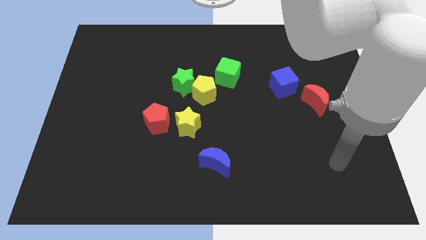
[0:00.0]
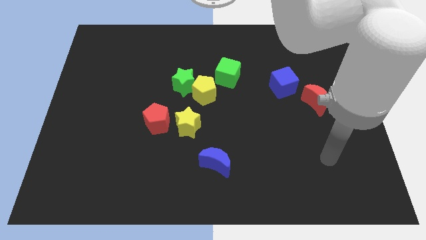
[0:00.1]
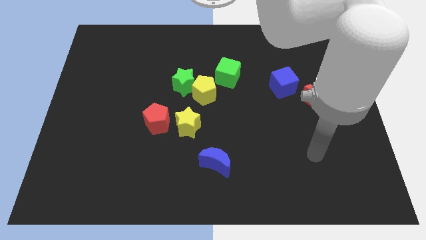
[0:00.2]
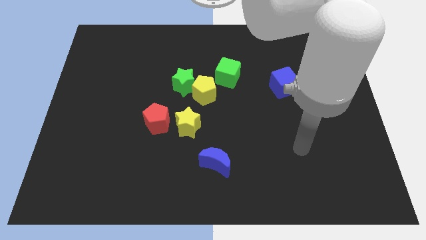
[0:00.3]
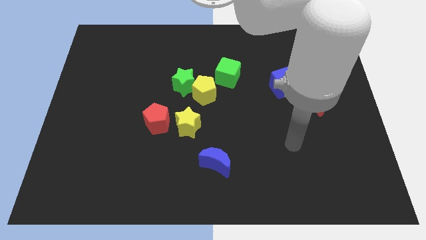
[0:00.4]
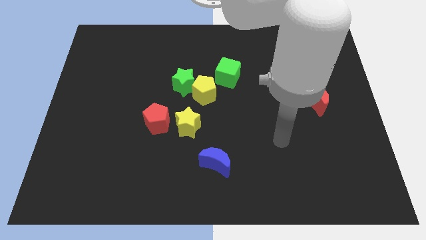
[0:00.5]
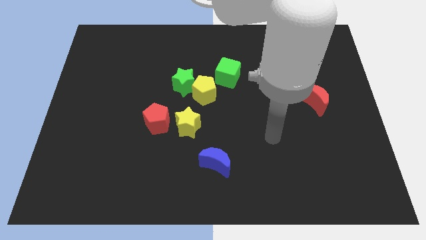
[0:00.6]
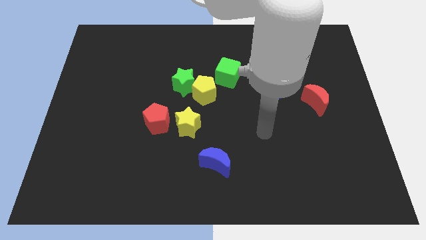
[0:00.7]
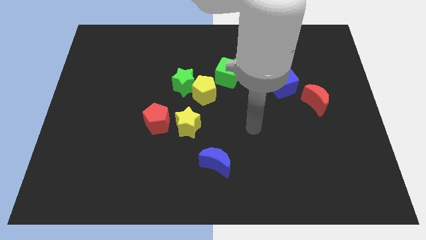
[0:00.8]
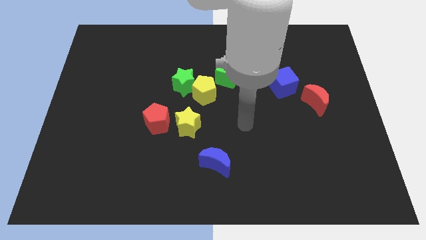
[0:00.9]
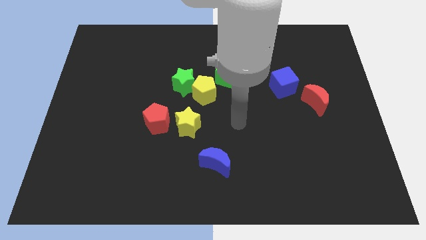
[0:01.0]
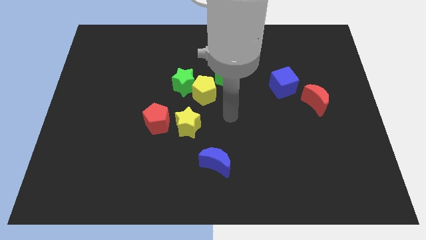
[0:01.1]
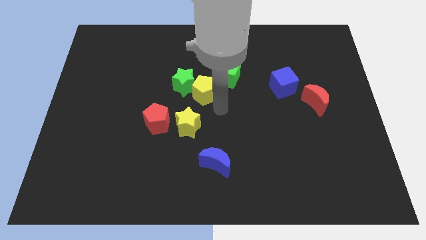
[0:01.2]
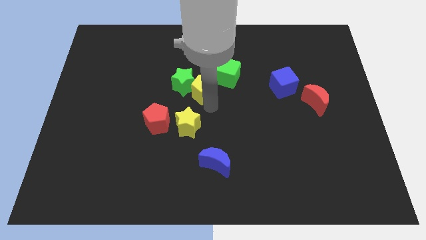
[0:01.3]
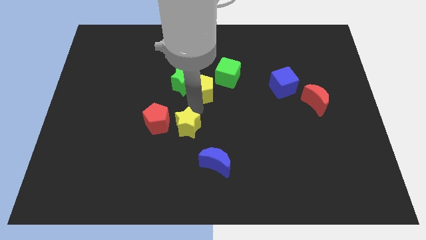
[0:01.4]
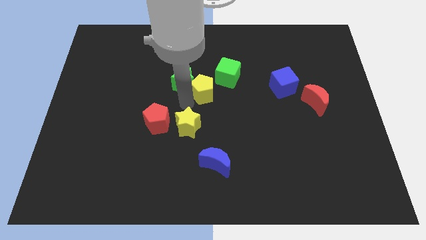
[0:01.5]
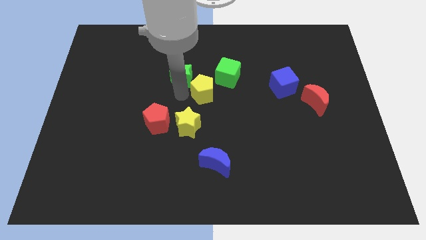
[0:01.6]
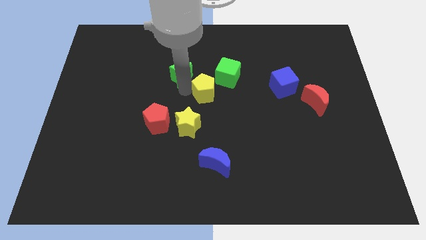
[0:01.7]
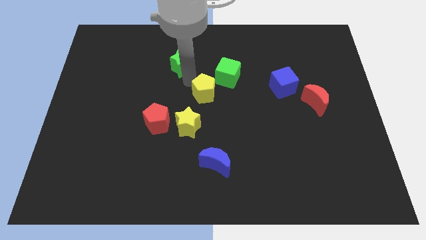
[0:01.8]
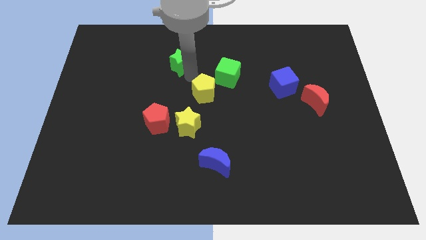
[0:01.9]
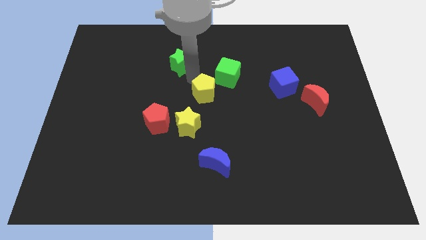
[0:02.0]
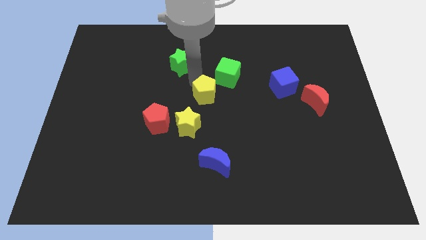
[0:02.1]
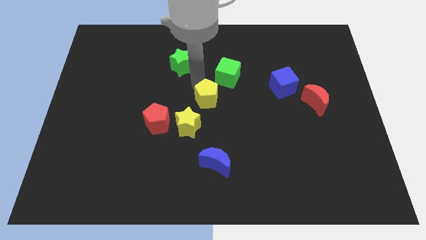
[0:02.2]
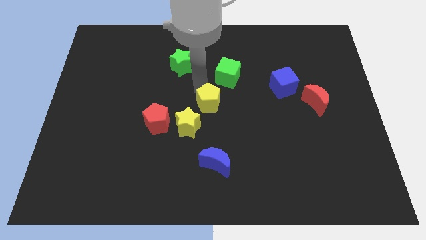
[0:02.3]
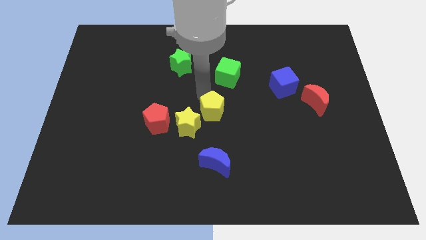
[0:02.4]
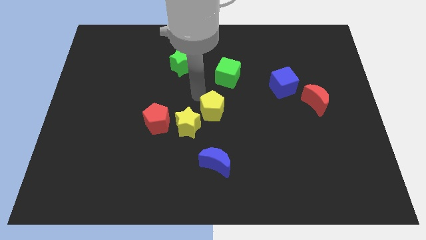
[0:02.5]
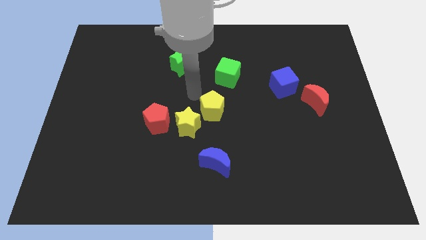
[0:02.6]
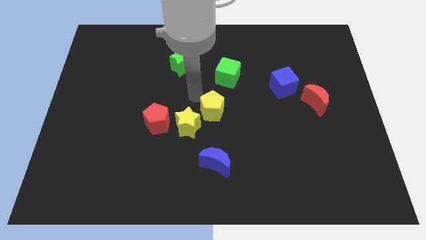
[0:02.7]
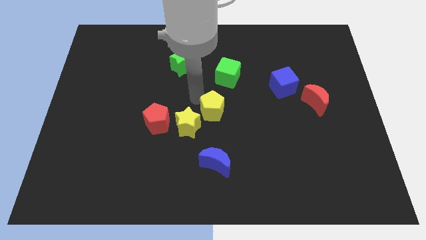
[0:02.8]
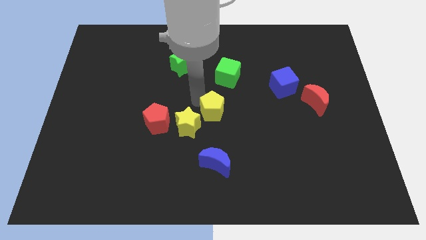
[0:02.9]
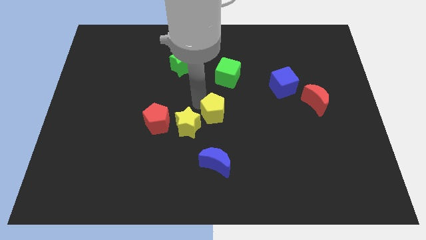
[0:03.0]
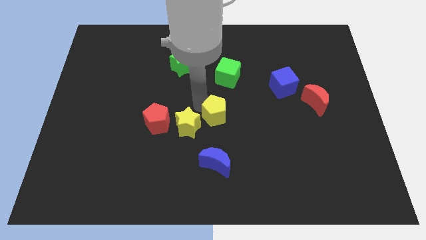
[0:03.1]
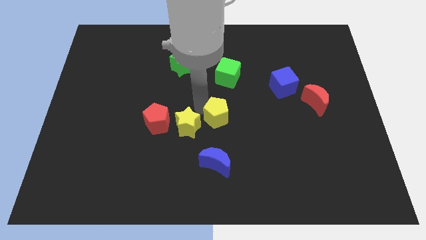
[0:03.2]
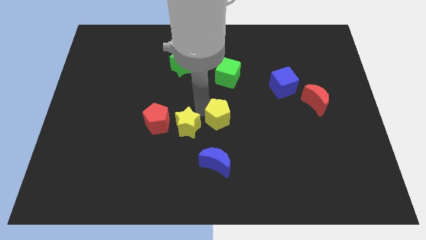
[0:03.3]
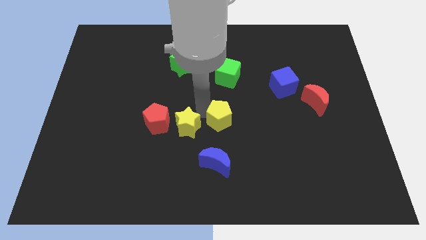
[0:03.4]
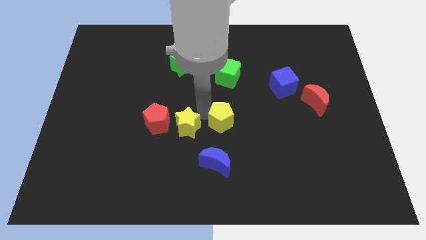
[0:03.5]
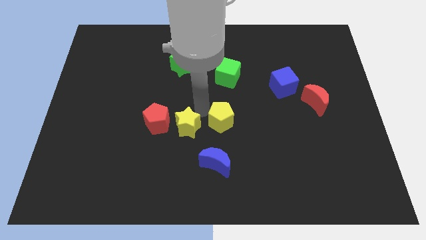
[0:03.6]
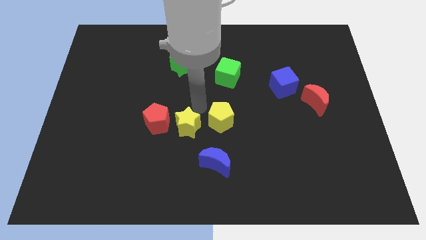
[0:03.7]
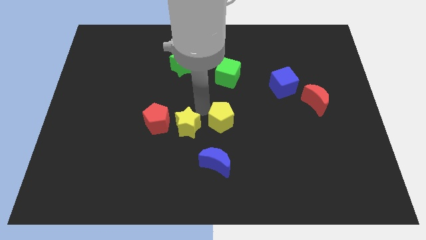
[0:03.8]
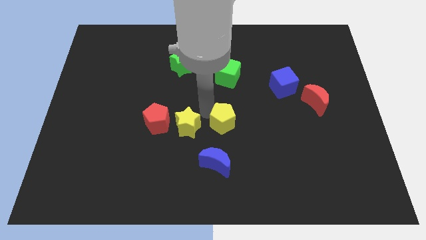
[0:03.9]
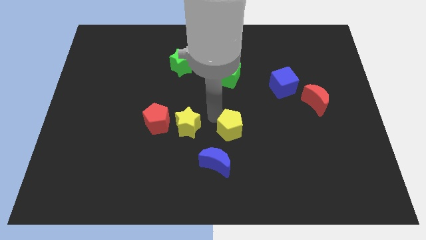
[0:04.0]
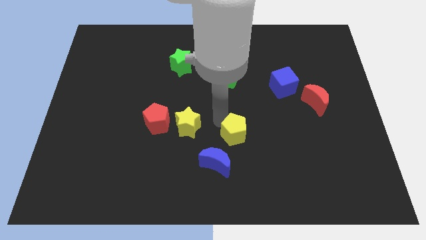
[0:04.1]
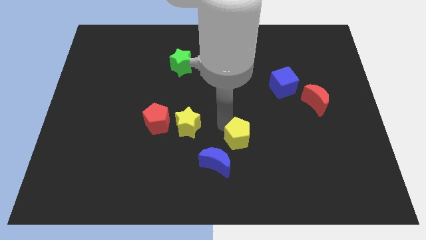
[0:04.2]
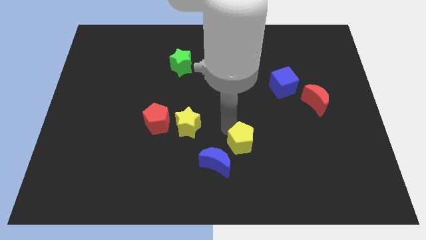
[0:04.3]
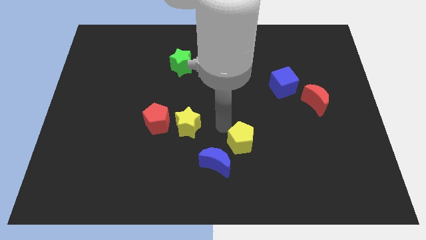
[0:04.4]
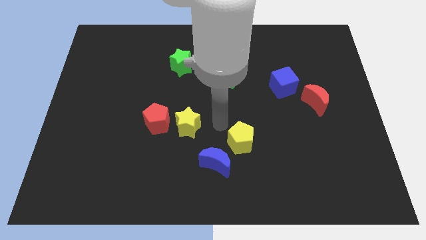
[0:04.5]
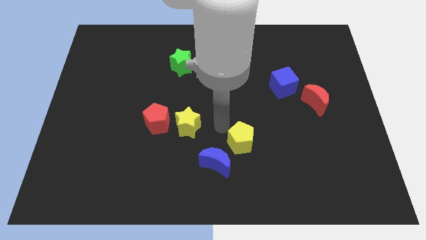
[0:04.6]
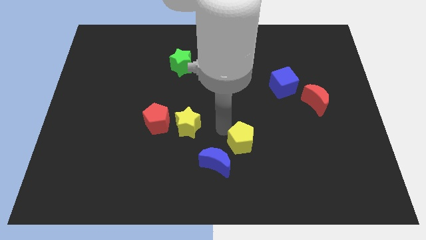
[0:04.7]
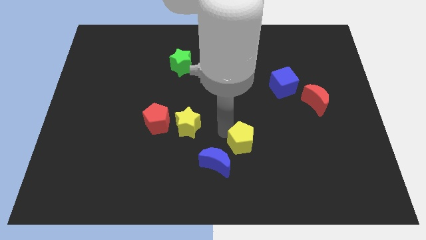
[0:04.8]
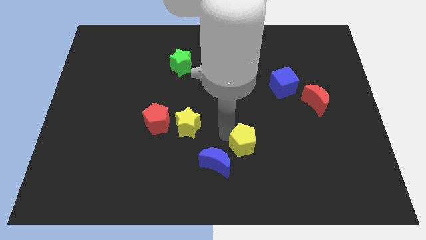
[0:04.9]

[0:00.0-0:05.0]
push the yellow pentagon just right of the blue moon

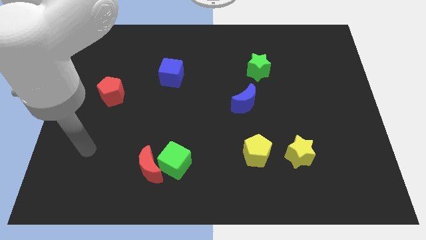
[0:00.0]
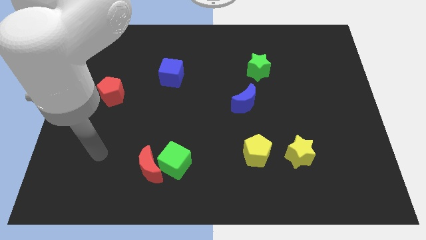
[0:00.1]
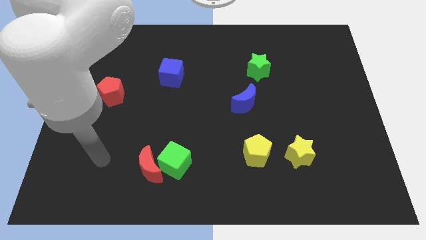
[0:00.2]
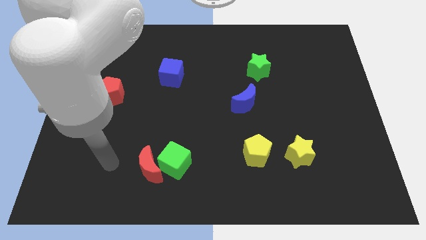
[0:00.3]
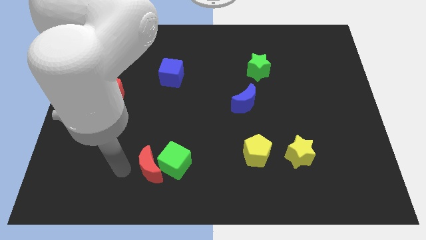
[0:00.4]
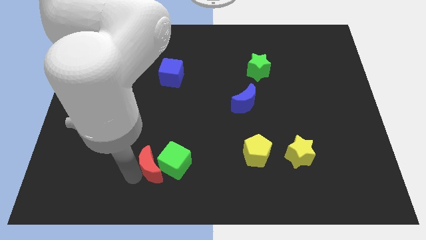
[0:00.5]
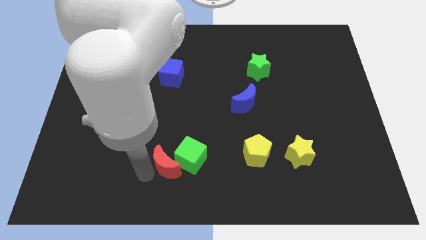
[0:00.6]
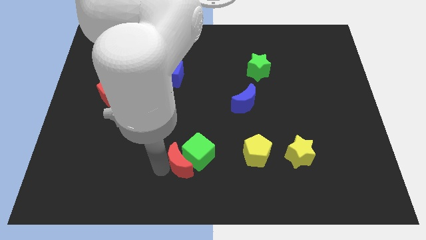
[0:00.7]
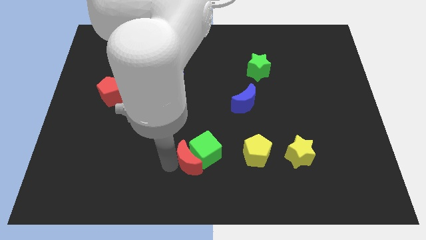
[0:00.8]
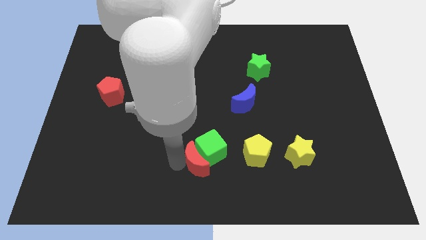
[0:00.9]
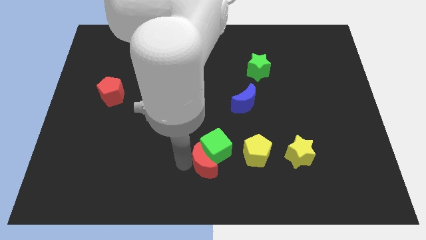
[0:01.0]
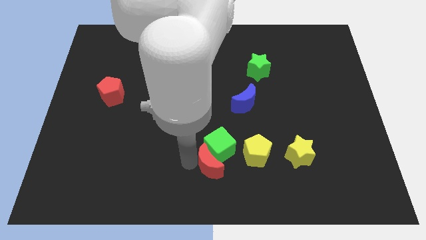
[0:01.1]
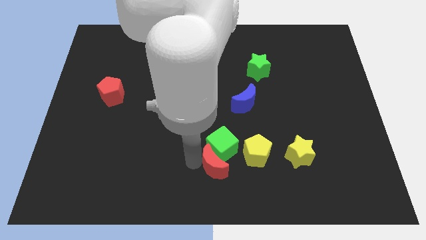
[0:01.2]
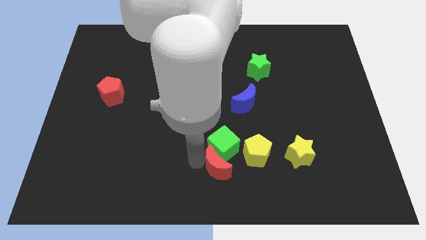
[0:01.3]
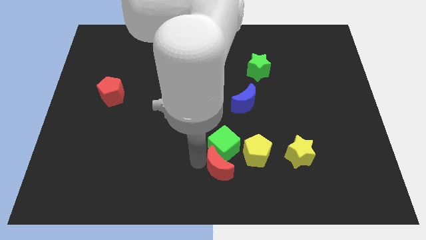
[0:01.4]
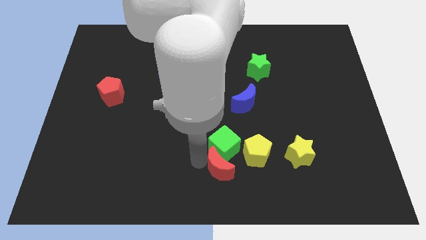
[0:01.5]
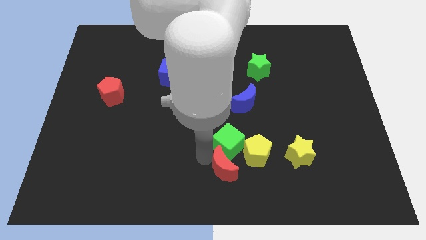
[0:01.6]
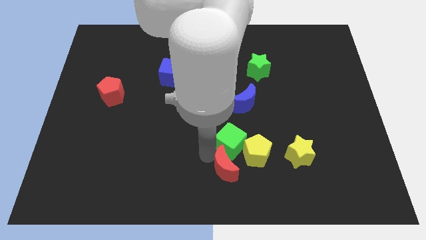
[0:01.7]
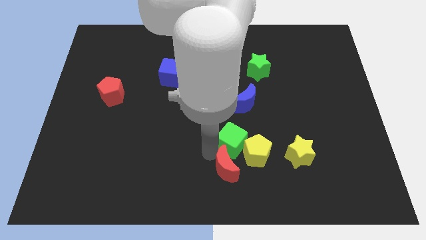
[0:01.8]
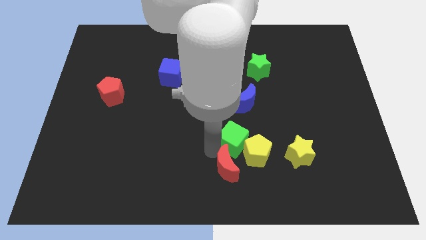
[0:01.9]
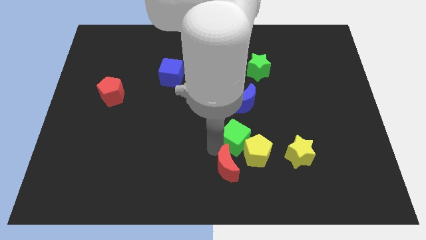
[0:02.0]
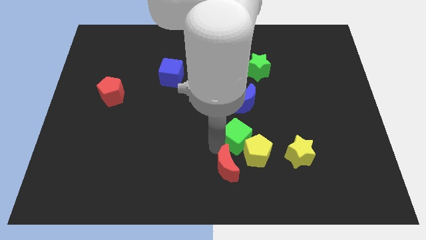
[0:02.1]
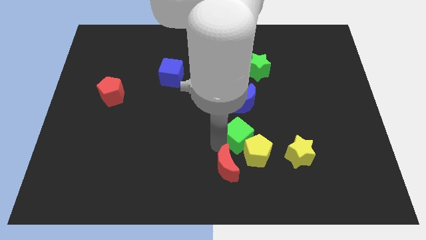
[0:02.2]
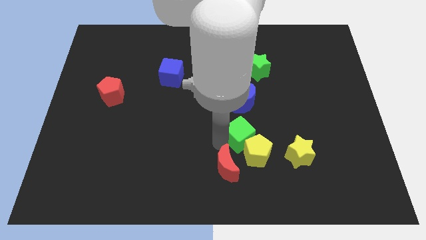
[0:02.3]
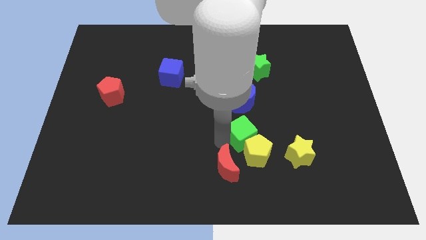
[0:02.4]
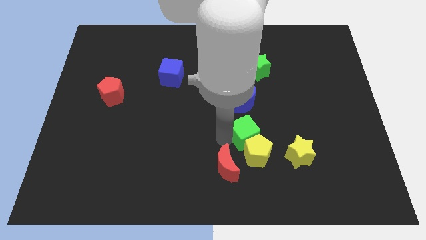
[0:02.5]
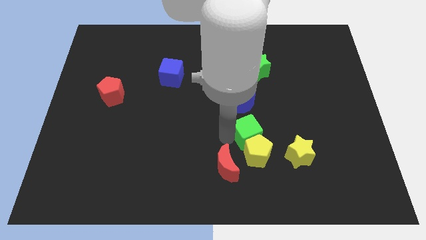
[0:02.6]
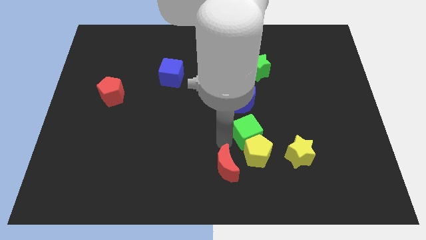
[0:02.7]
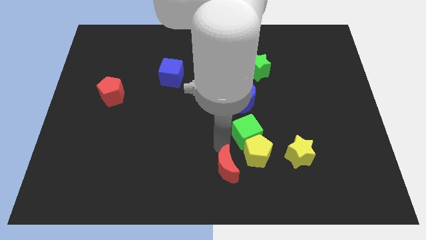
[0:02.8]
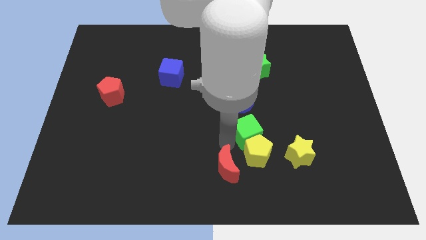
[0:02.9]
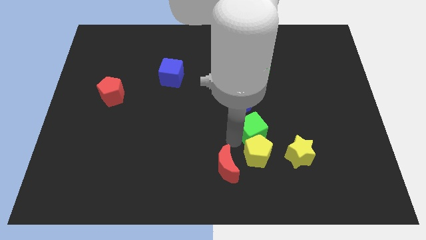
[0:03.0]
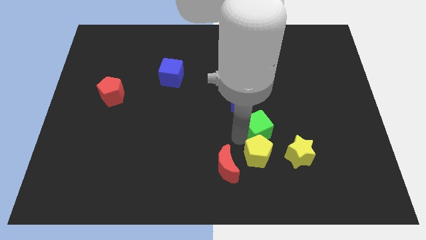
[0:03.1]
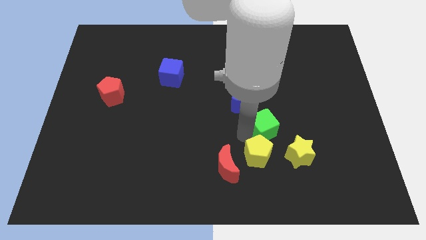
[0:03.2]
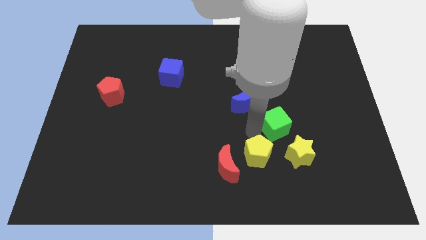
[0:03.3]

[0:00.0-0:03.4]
move the green cube above the yellow star
